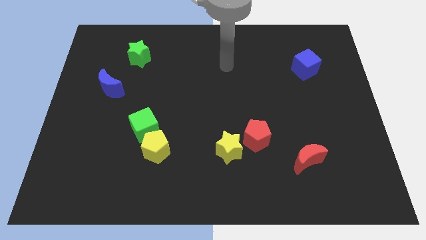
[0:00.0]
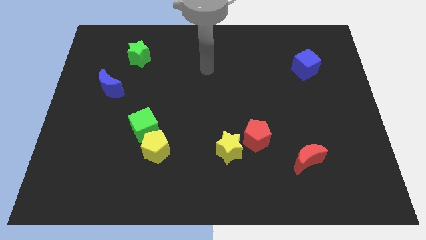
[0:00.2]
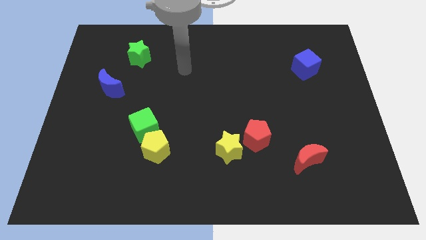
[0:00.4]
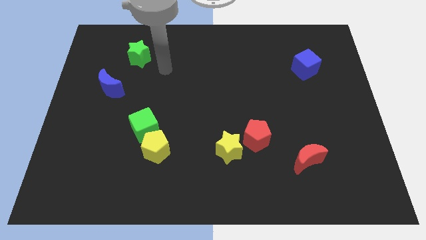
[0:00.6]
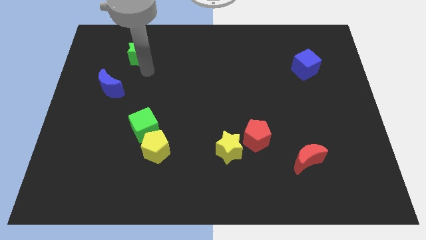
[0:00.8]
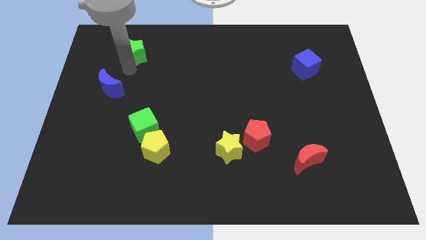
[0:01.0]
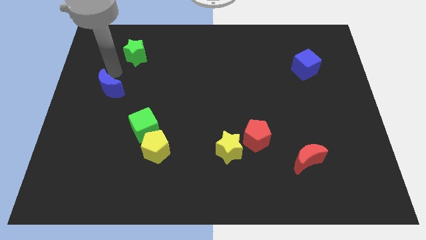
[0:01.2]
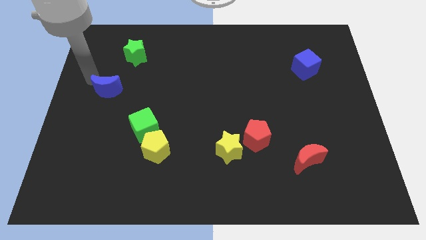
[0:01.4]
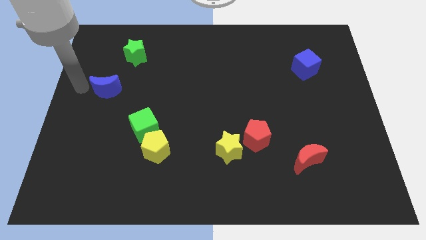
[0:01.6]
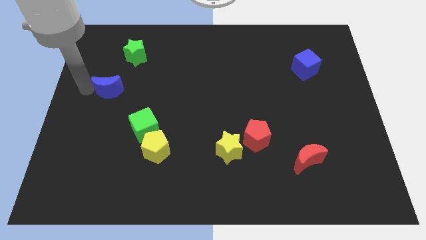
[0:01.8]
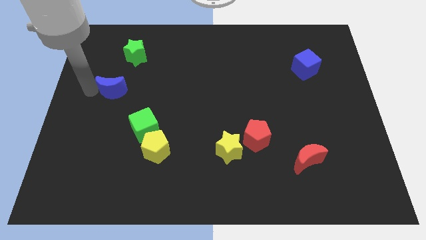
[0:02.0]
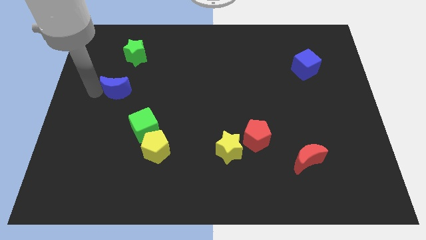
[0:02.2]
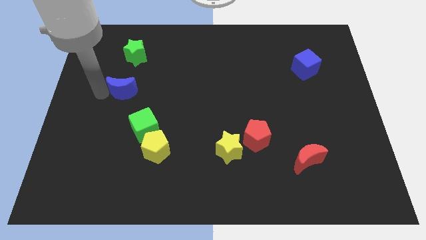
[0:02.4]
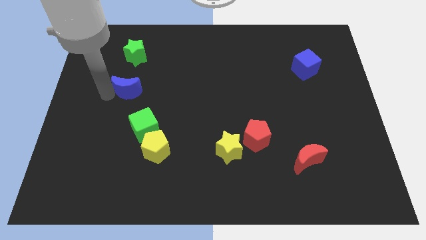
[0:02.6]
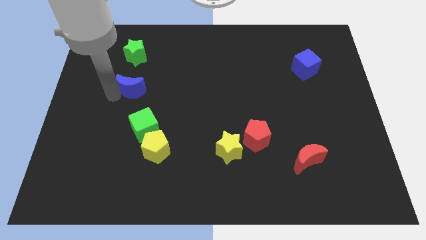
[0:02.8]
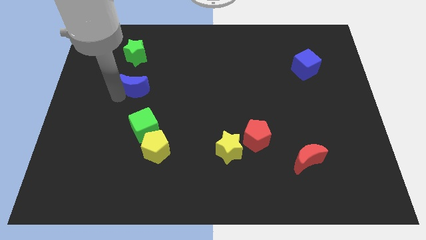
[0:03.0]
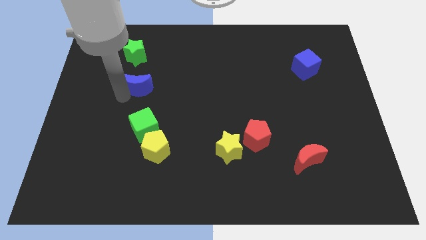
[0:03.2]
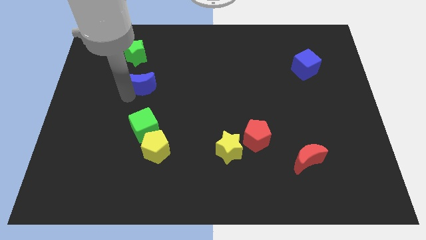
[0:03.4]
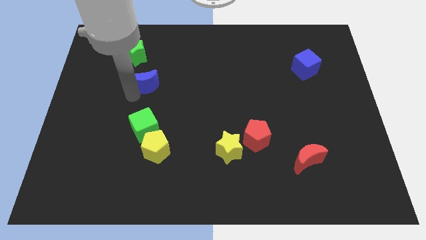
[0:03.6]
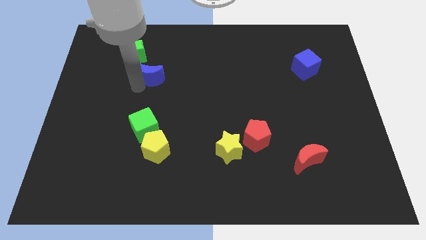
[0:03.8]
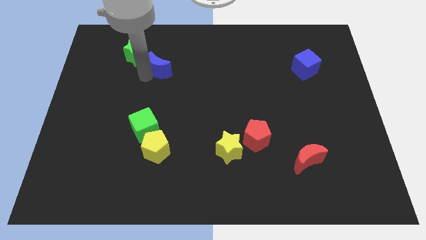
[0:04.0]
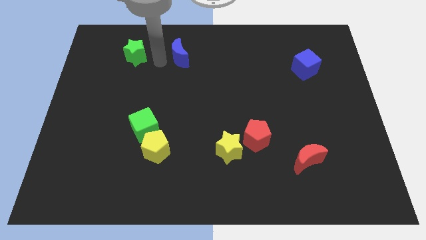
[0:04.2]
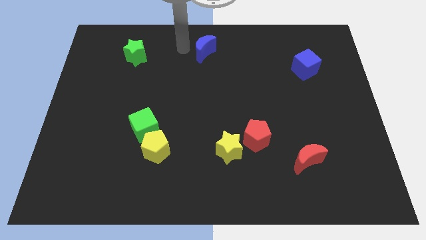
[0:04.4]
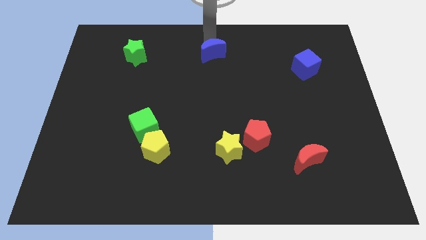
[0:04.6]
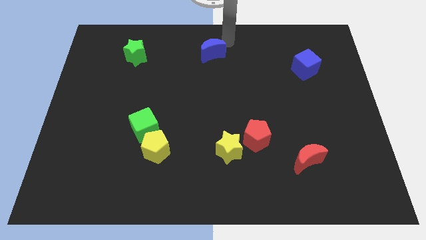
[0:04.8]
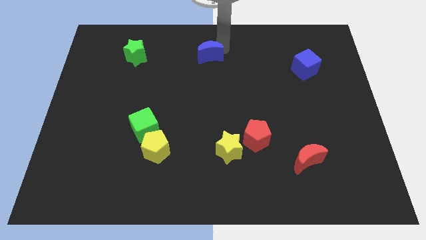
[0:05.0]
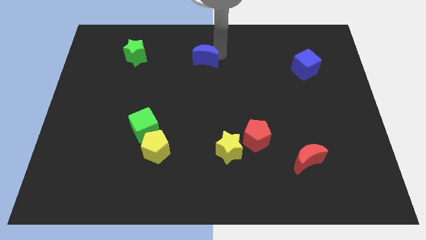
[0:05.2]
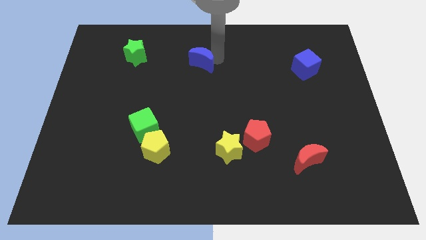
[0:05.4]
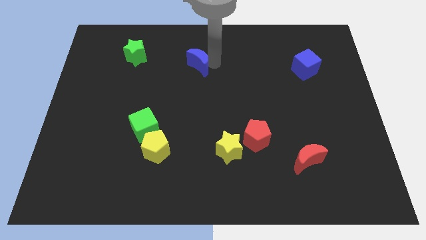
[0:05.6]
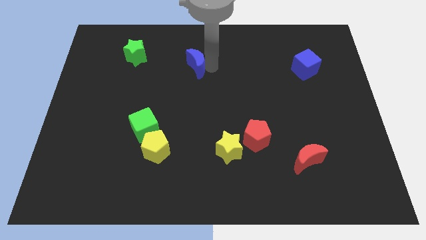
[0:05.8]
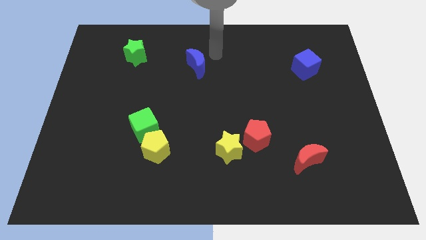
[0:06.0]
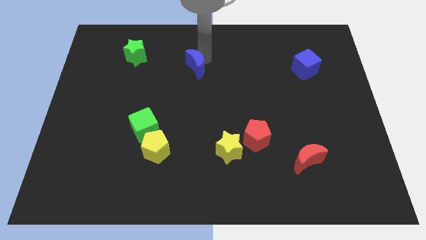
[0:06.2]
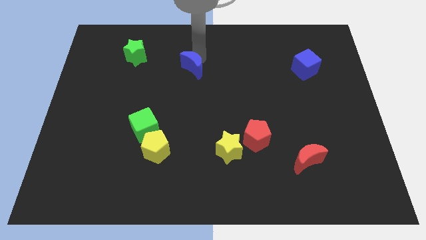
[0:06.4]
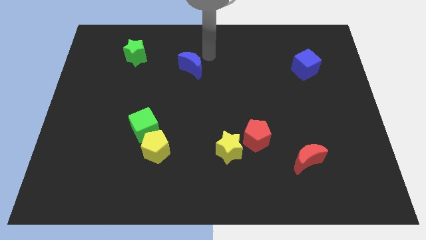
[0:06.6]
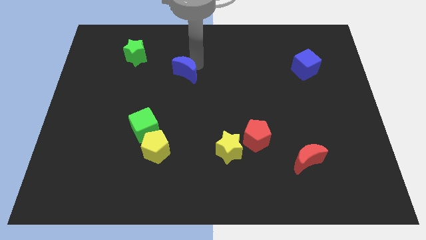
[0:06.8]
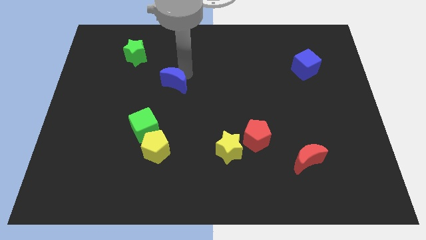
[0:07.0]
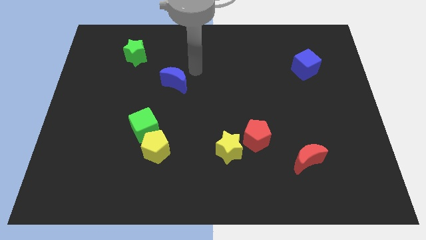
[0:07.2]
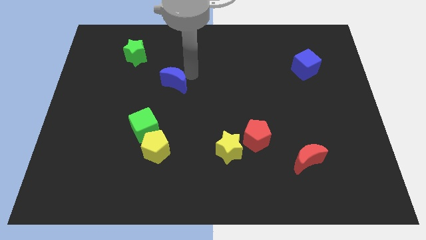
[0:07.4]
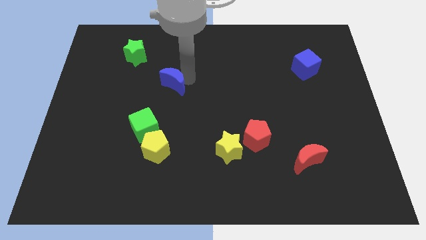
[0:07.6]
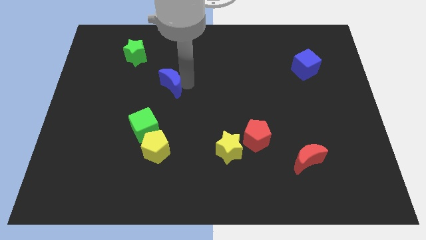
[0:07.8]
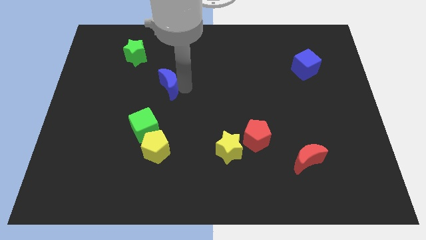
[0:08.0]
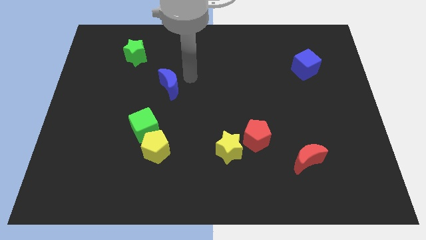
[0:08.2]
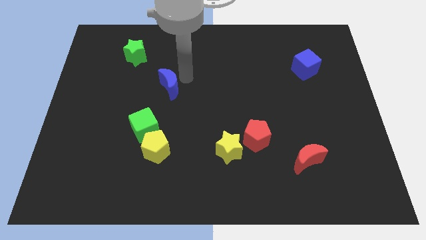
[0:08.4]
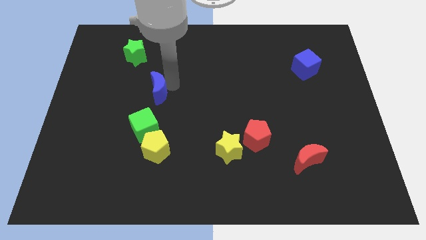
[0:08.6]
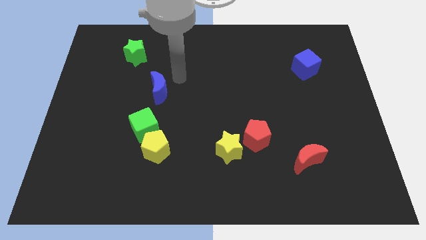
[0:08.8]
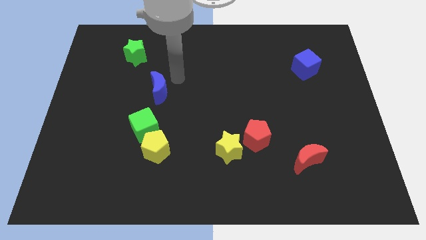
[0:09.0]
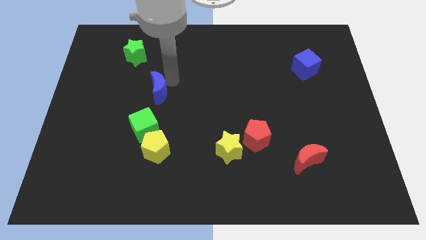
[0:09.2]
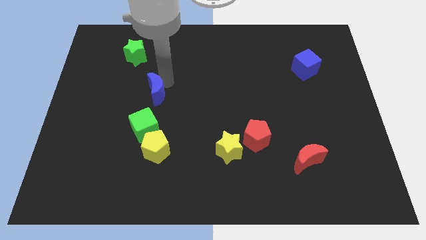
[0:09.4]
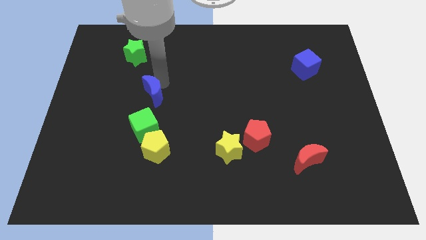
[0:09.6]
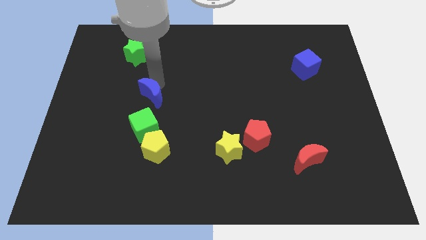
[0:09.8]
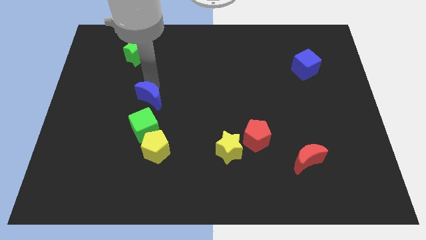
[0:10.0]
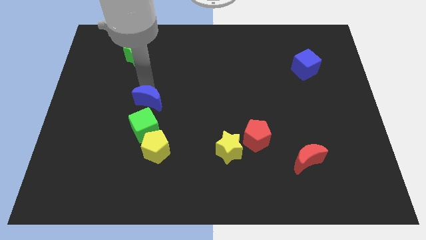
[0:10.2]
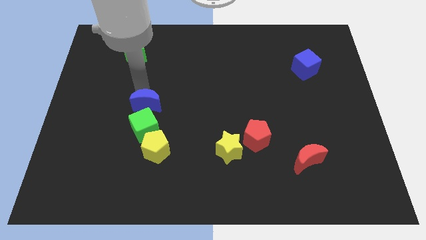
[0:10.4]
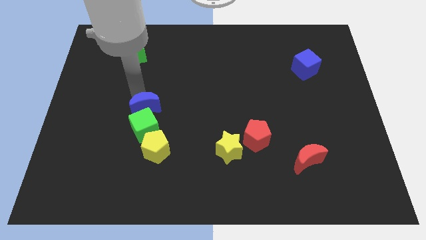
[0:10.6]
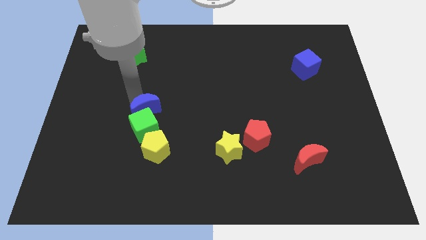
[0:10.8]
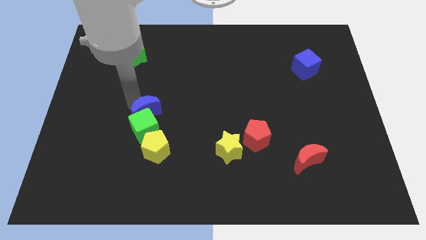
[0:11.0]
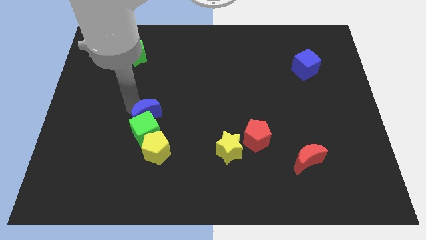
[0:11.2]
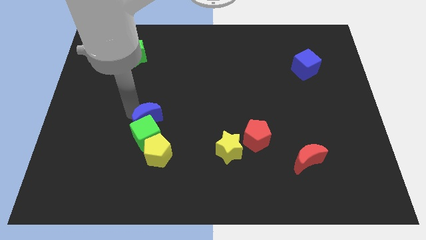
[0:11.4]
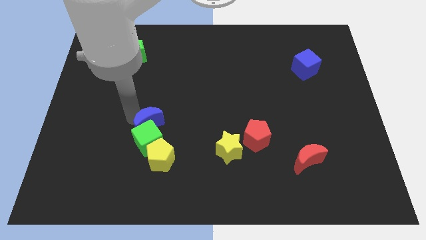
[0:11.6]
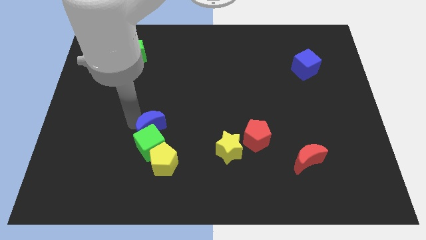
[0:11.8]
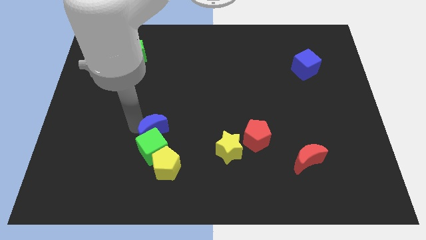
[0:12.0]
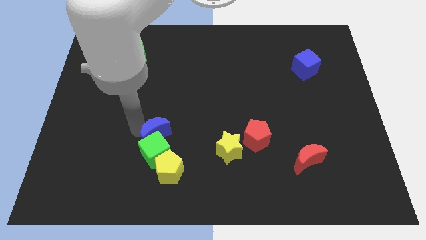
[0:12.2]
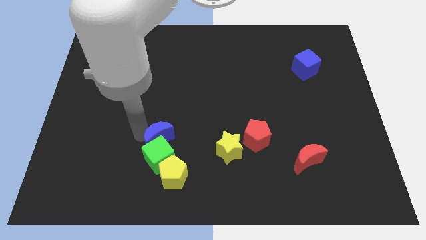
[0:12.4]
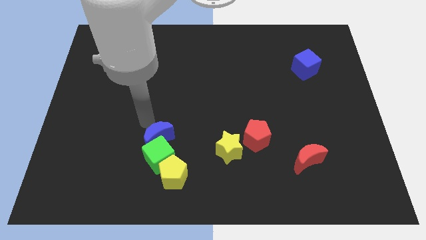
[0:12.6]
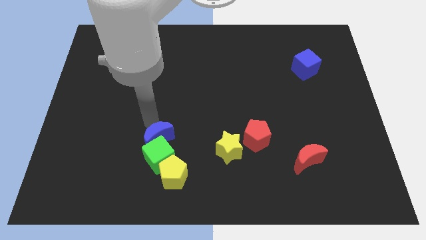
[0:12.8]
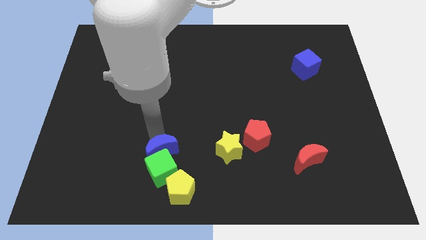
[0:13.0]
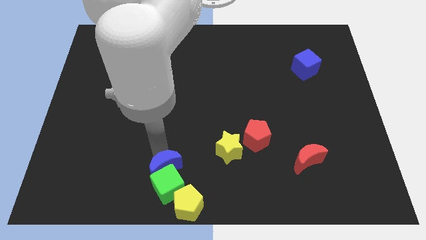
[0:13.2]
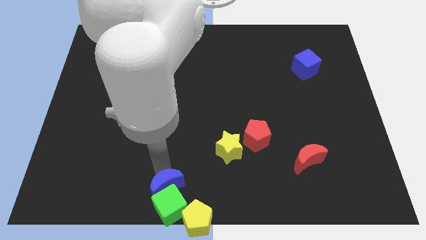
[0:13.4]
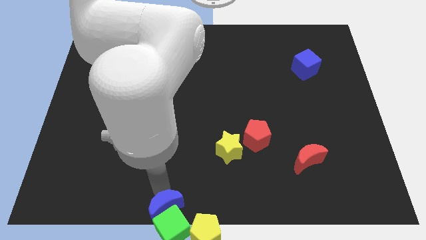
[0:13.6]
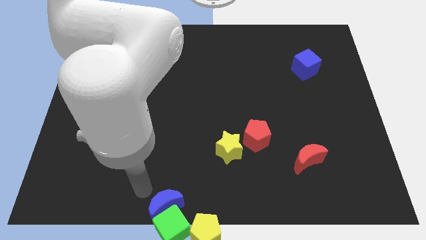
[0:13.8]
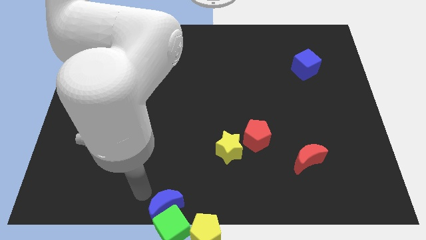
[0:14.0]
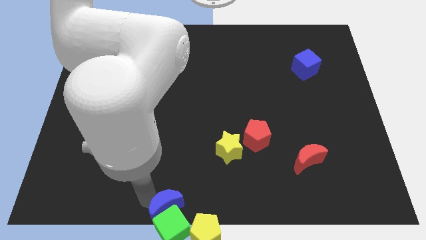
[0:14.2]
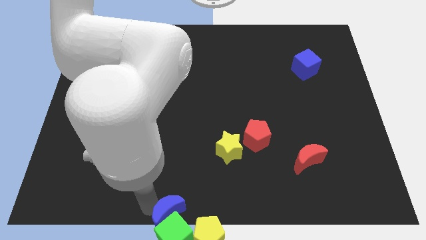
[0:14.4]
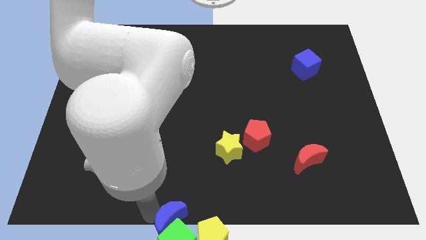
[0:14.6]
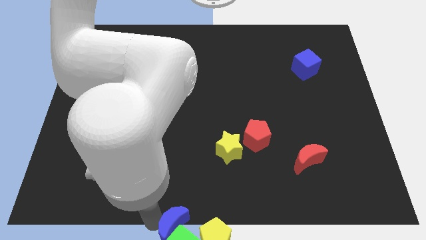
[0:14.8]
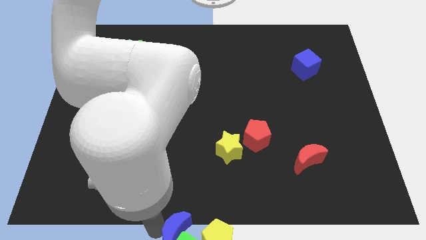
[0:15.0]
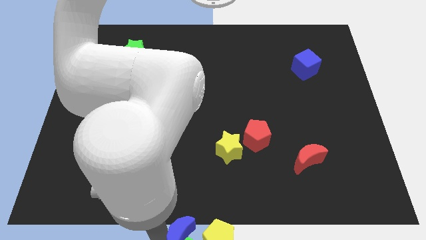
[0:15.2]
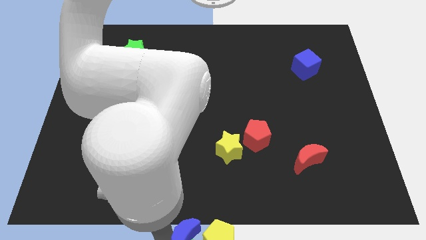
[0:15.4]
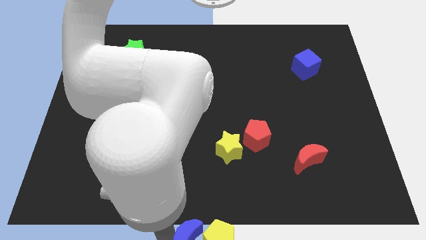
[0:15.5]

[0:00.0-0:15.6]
push the blue moon towards the yellow pentagon
